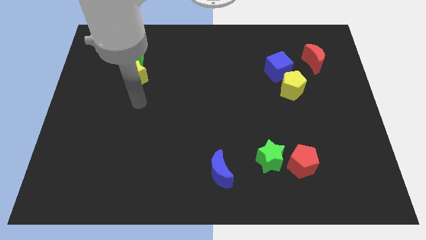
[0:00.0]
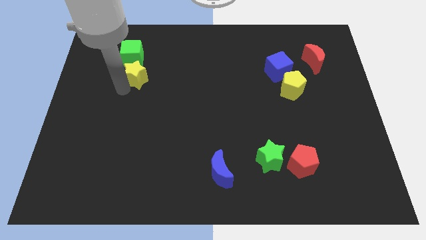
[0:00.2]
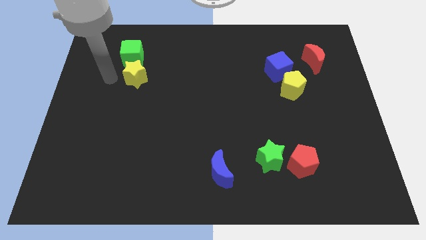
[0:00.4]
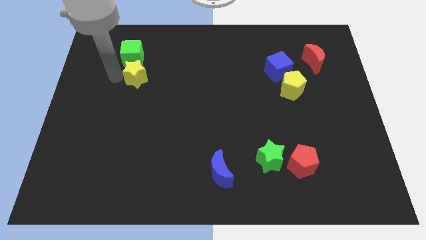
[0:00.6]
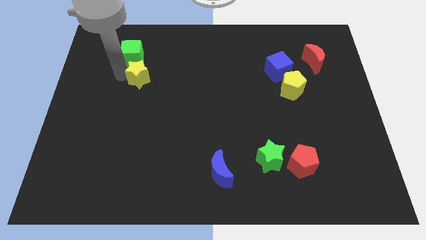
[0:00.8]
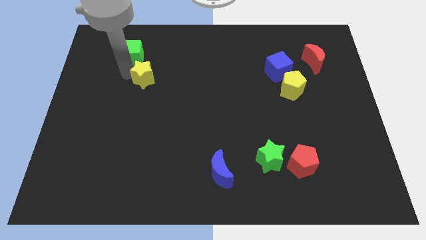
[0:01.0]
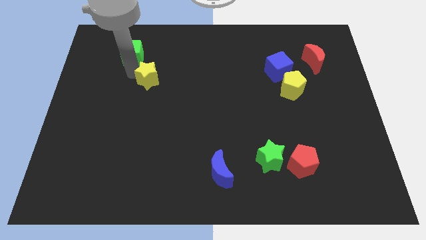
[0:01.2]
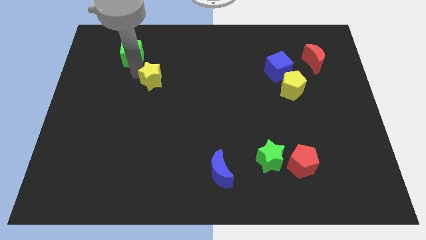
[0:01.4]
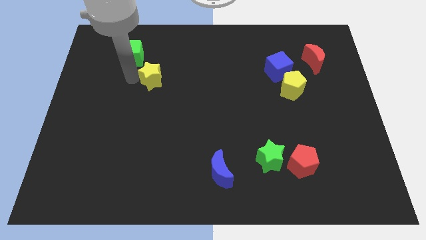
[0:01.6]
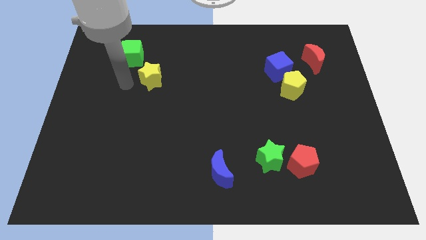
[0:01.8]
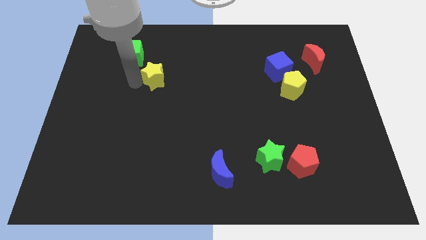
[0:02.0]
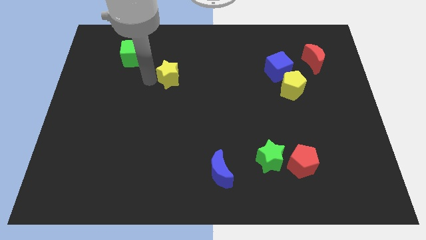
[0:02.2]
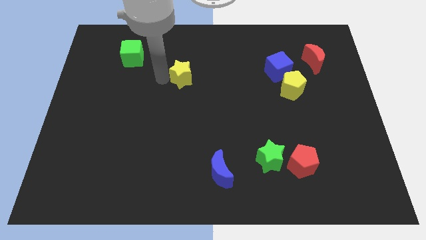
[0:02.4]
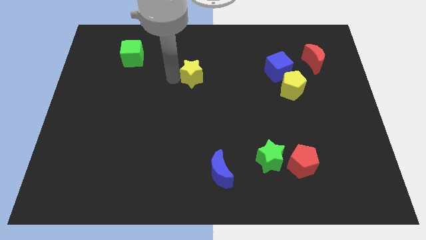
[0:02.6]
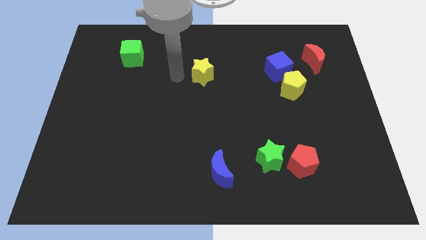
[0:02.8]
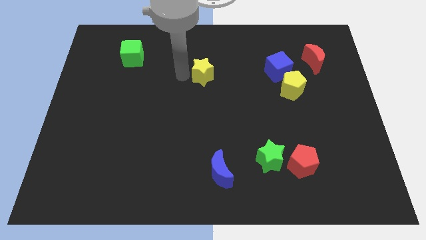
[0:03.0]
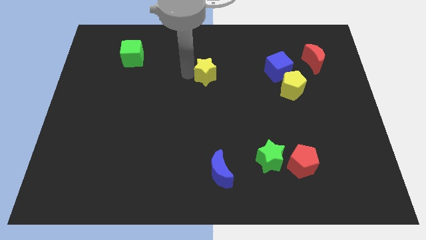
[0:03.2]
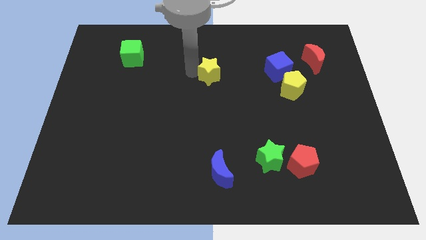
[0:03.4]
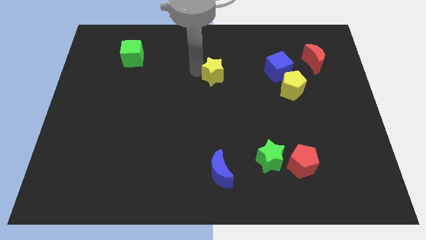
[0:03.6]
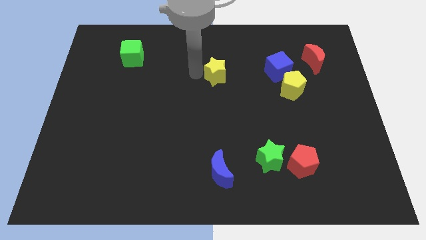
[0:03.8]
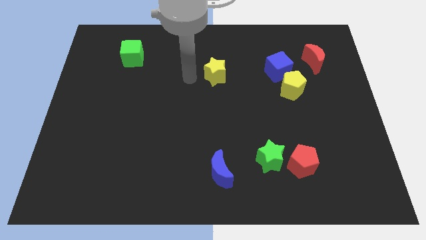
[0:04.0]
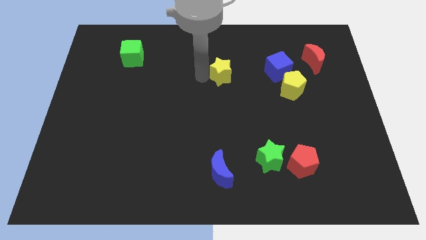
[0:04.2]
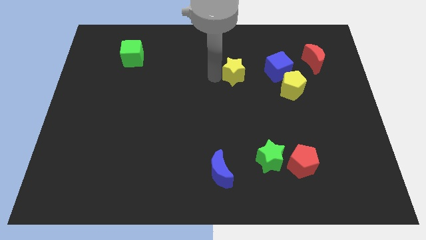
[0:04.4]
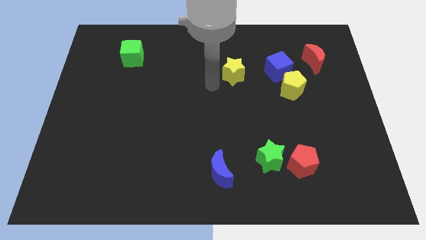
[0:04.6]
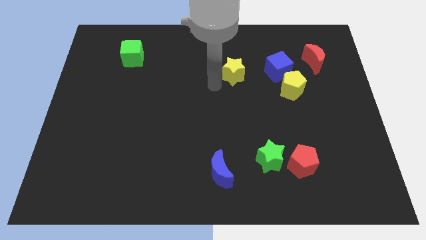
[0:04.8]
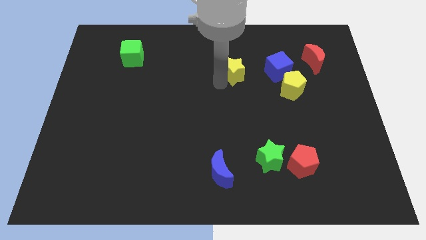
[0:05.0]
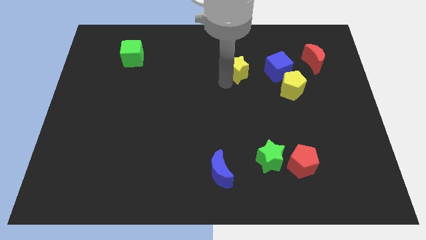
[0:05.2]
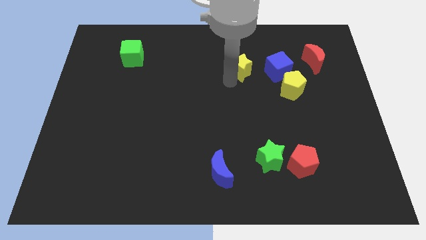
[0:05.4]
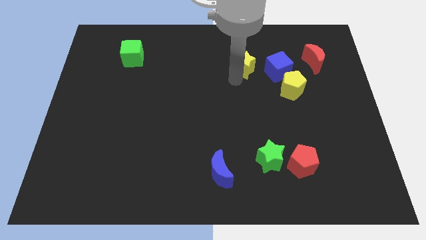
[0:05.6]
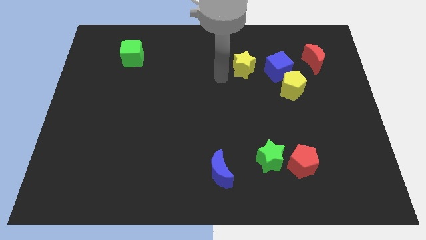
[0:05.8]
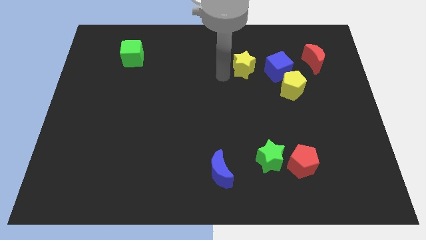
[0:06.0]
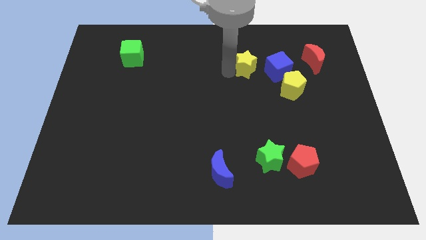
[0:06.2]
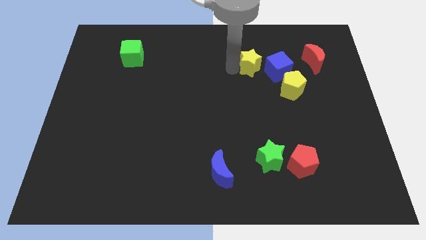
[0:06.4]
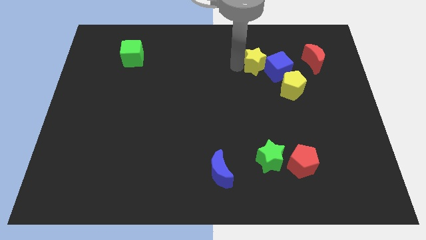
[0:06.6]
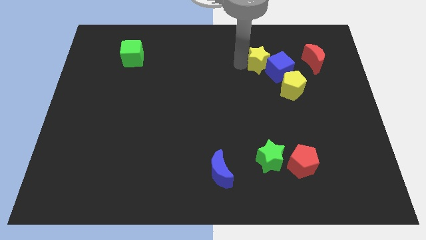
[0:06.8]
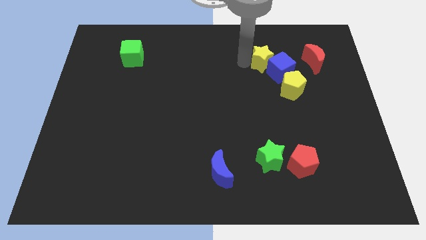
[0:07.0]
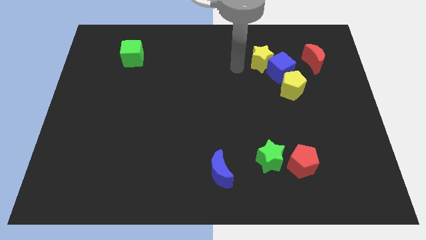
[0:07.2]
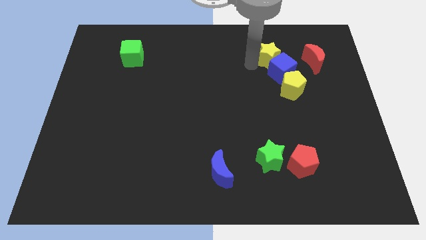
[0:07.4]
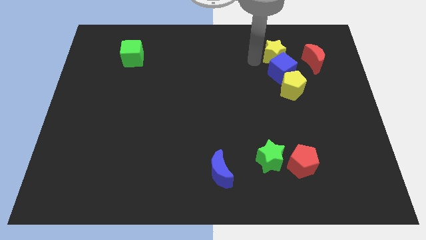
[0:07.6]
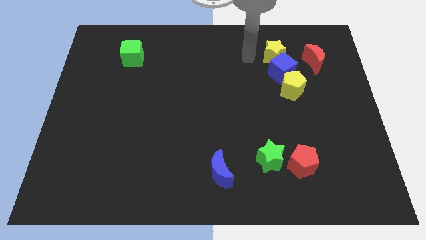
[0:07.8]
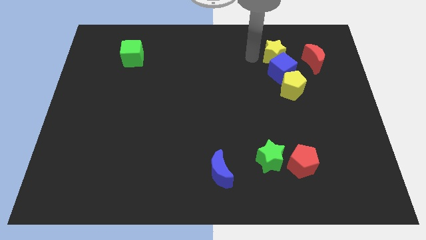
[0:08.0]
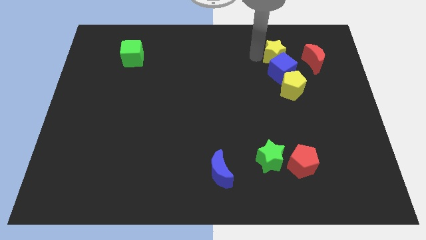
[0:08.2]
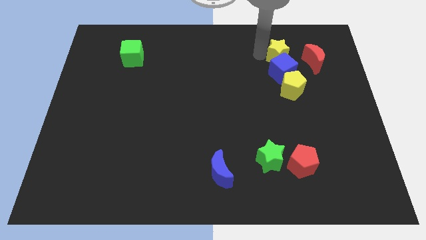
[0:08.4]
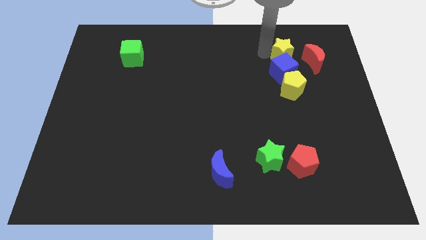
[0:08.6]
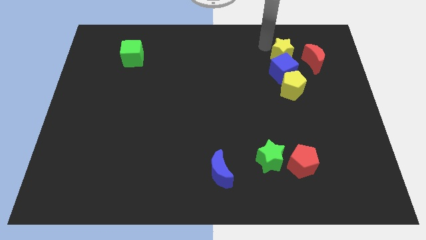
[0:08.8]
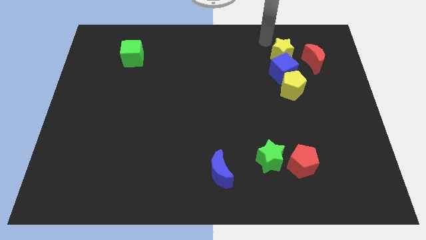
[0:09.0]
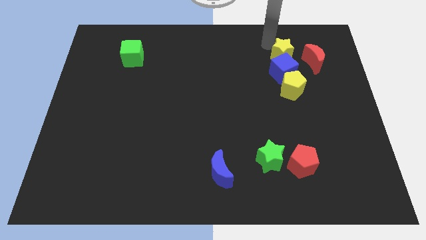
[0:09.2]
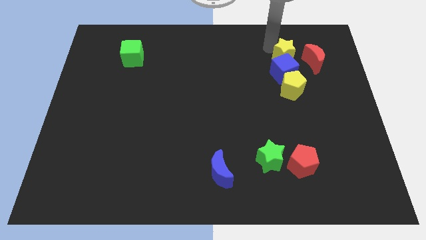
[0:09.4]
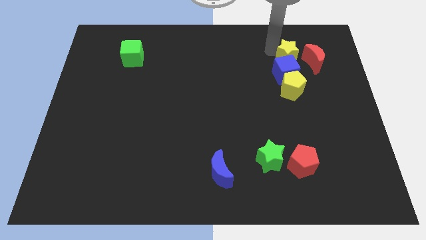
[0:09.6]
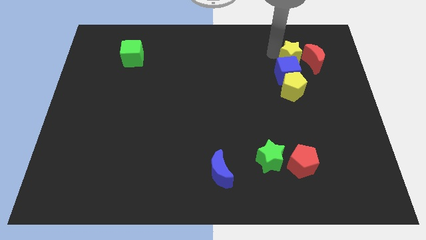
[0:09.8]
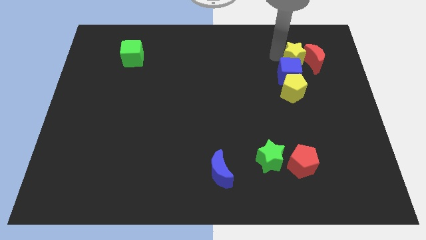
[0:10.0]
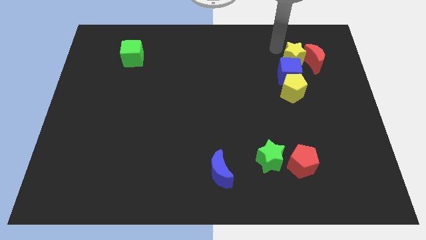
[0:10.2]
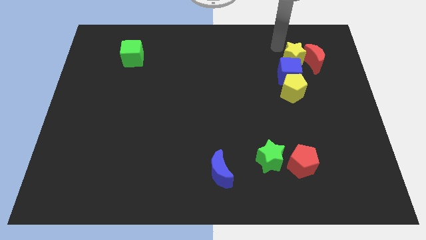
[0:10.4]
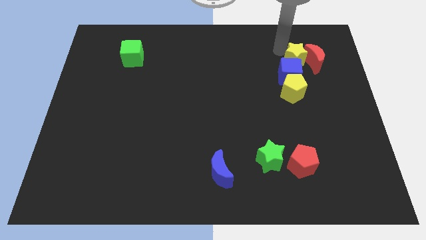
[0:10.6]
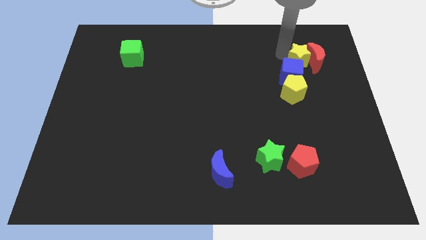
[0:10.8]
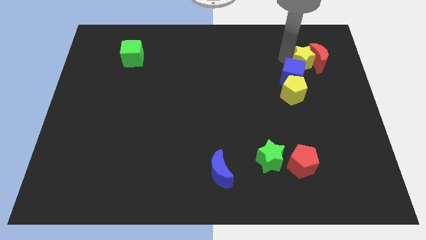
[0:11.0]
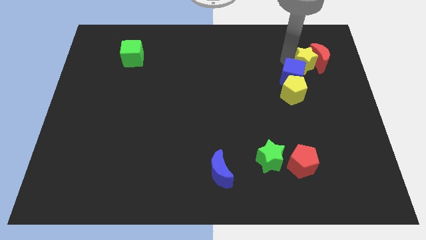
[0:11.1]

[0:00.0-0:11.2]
push the yellow star to the top right side of the yellow pentagon

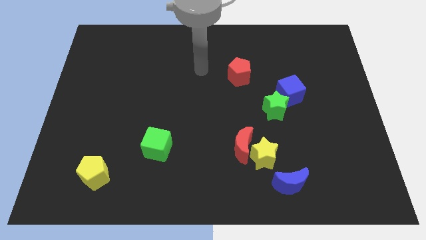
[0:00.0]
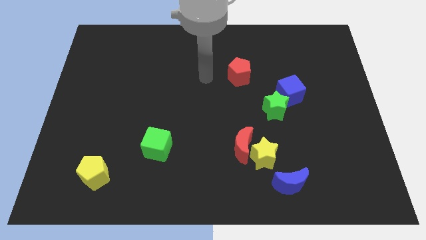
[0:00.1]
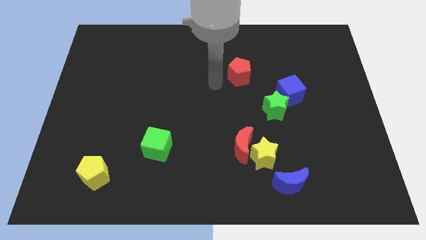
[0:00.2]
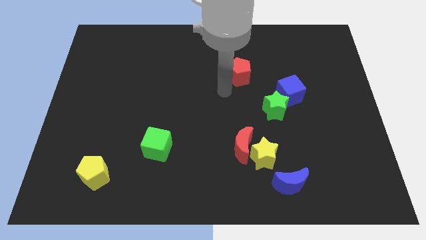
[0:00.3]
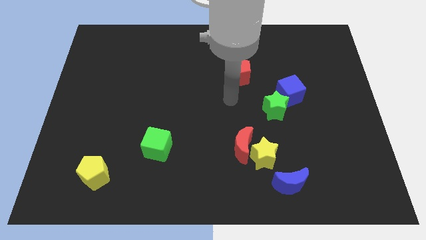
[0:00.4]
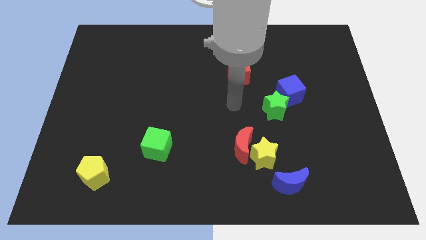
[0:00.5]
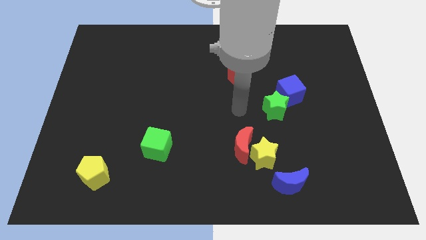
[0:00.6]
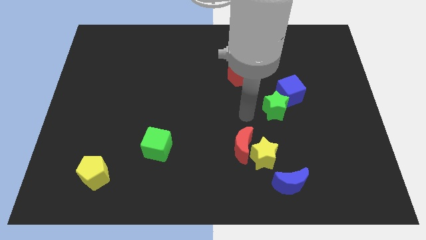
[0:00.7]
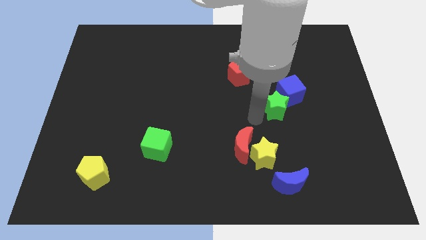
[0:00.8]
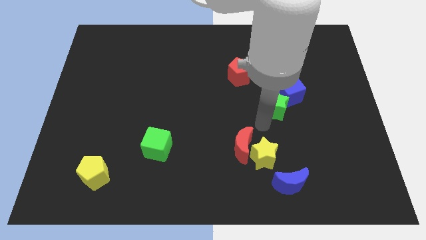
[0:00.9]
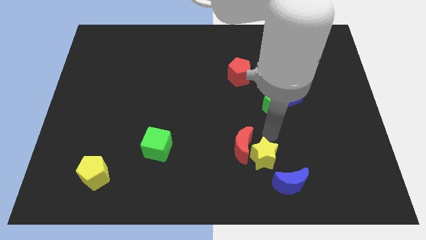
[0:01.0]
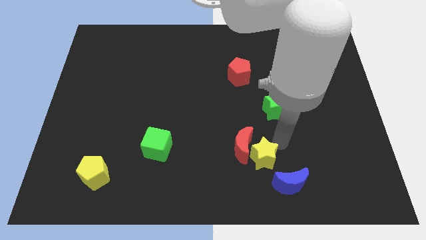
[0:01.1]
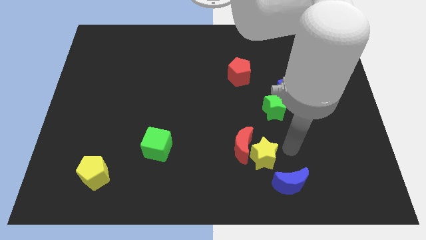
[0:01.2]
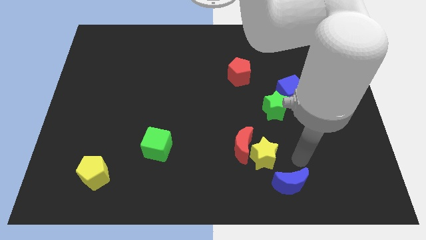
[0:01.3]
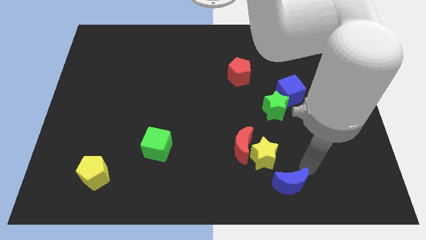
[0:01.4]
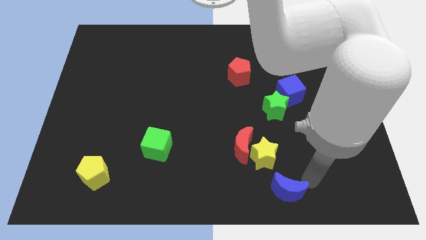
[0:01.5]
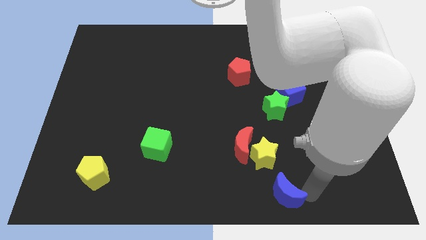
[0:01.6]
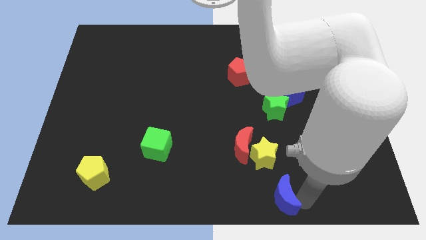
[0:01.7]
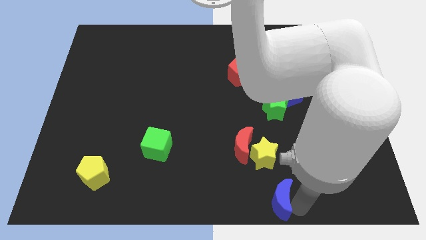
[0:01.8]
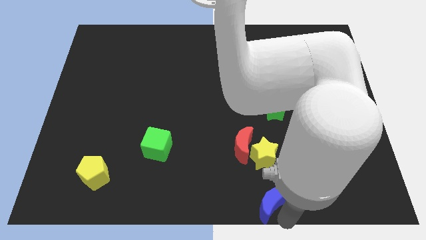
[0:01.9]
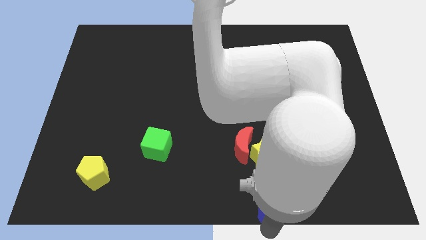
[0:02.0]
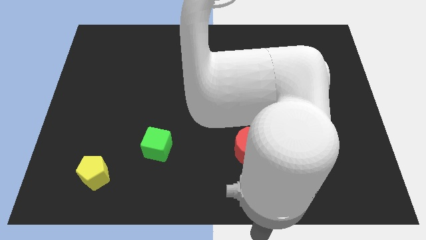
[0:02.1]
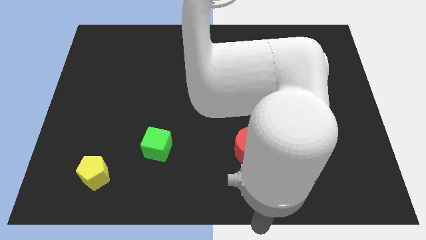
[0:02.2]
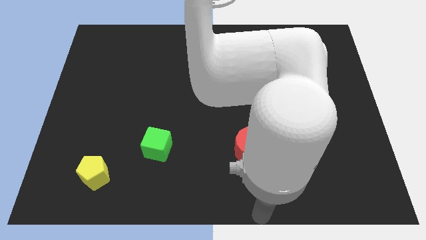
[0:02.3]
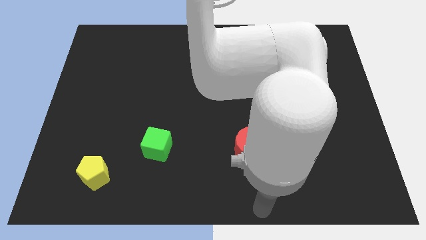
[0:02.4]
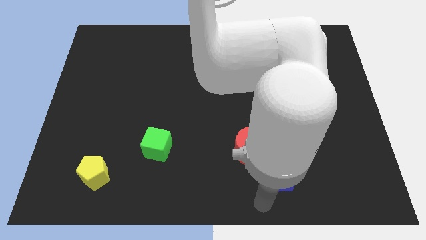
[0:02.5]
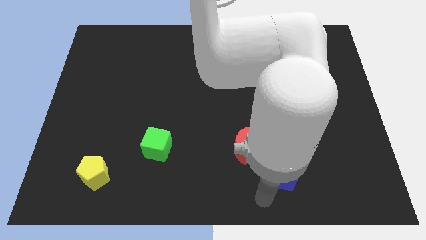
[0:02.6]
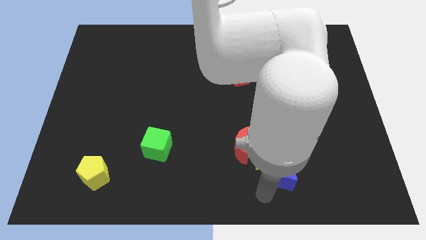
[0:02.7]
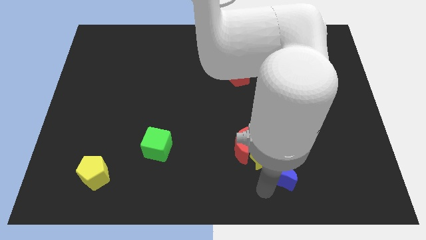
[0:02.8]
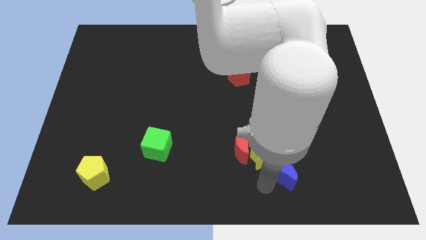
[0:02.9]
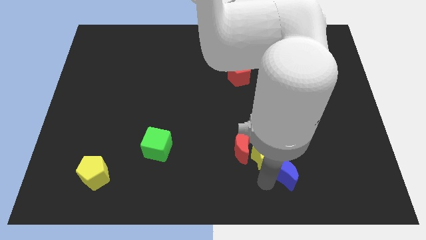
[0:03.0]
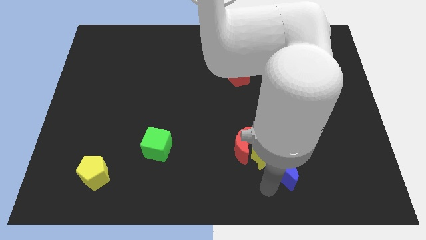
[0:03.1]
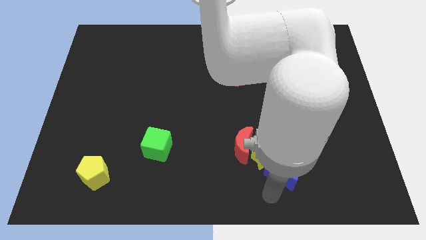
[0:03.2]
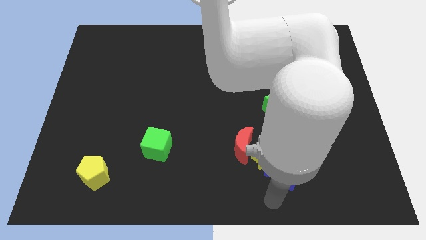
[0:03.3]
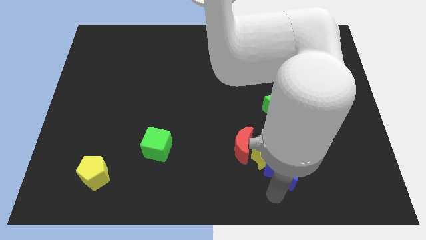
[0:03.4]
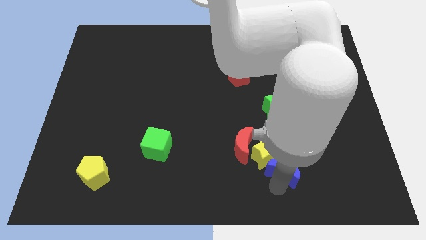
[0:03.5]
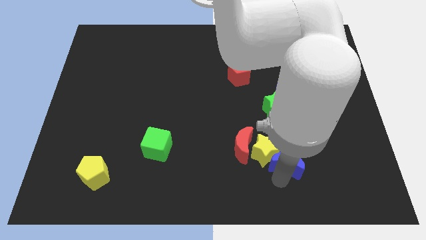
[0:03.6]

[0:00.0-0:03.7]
push the blue moon to the right side of the red moon
